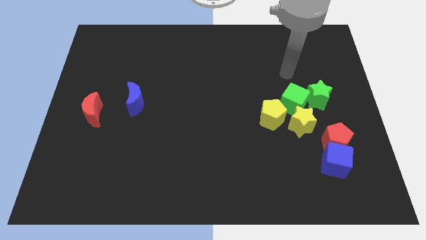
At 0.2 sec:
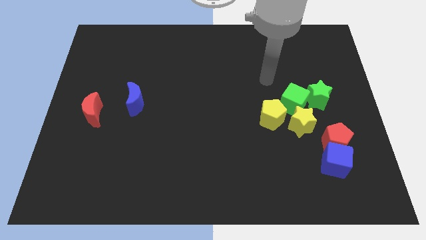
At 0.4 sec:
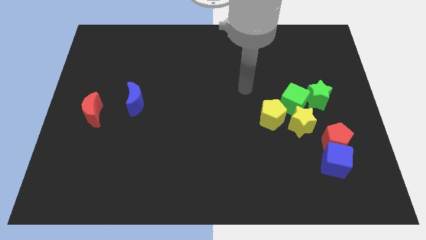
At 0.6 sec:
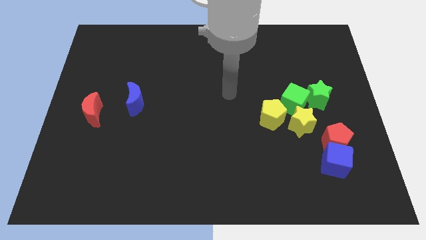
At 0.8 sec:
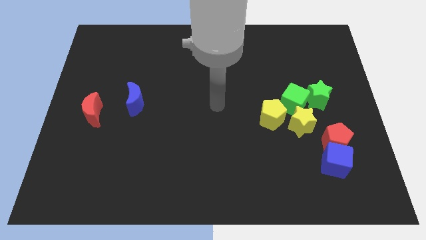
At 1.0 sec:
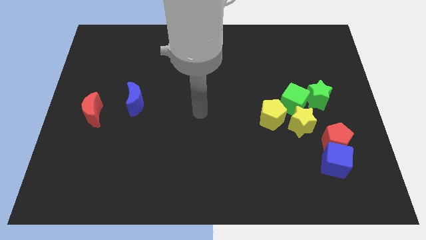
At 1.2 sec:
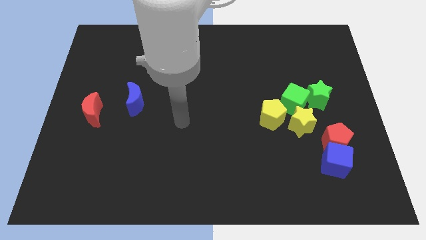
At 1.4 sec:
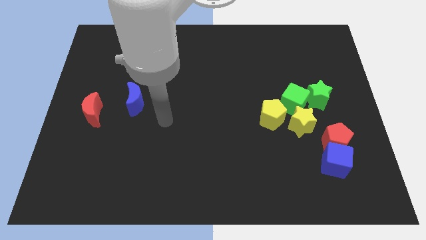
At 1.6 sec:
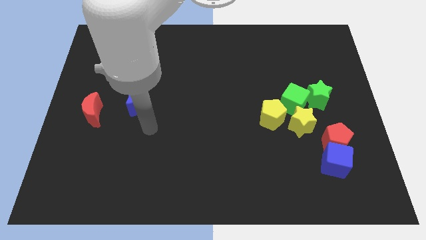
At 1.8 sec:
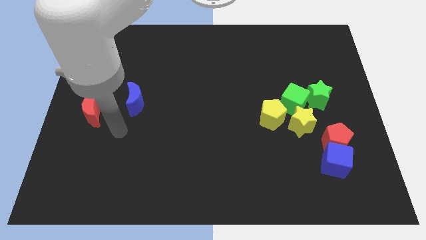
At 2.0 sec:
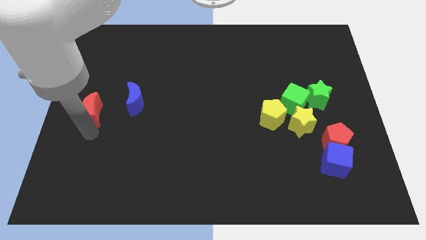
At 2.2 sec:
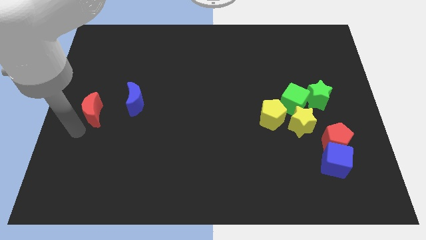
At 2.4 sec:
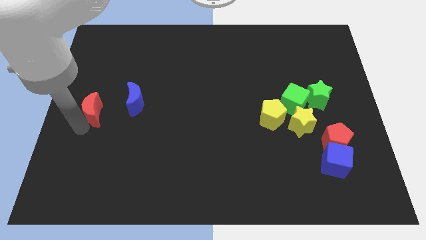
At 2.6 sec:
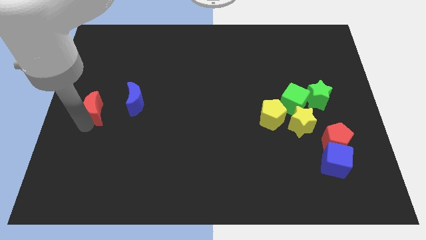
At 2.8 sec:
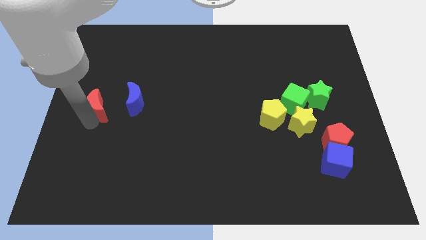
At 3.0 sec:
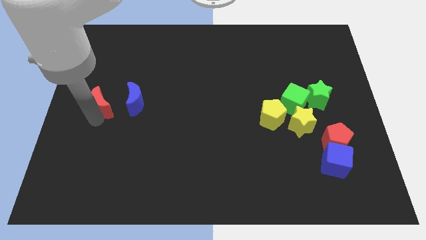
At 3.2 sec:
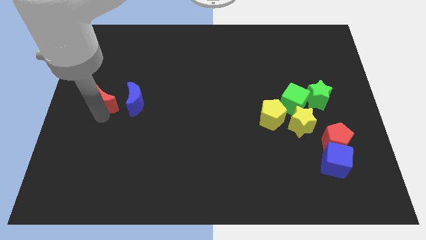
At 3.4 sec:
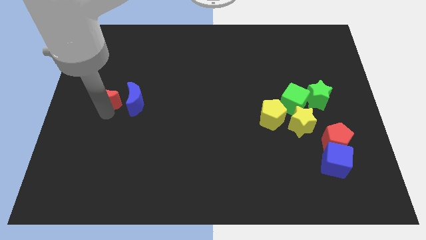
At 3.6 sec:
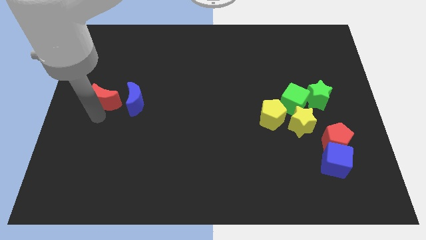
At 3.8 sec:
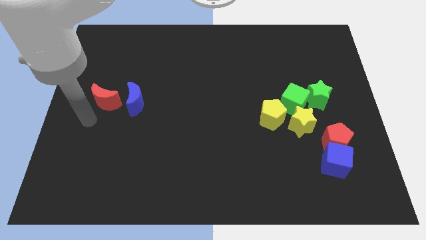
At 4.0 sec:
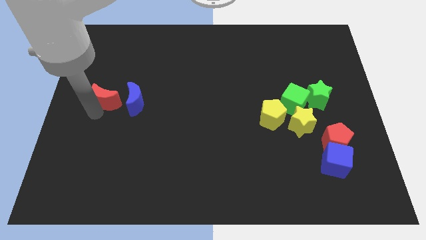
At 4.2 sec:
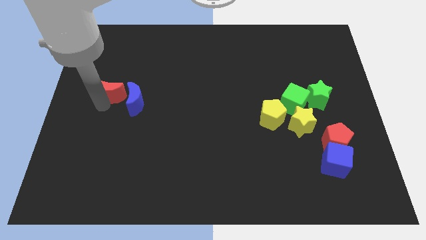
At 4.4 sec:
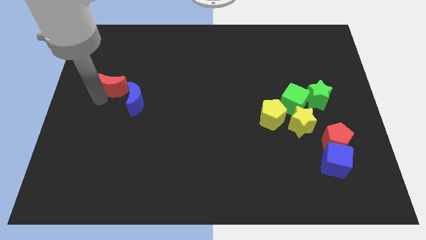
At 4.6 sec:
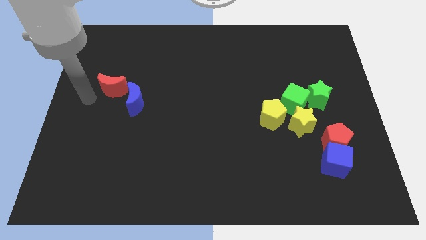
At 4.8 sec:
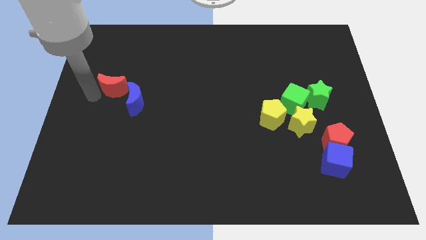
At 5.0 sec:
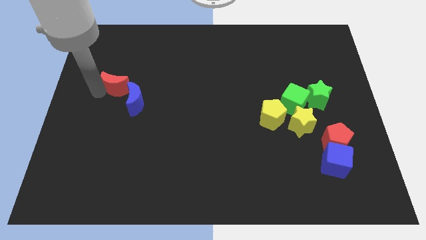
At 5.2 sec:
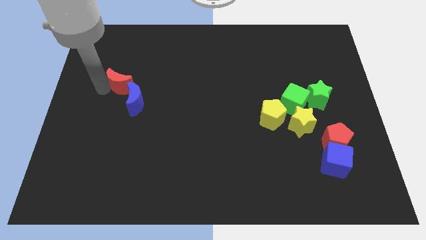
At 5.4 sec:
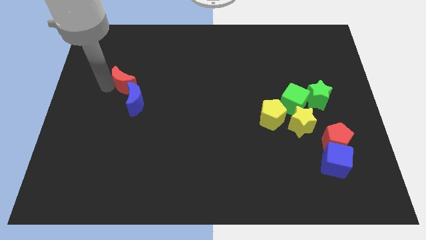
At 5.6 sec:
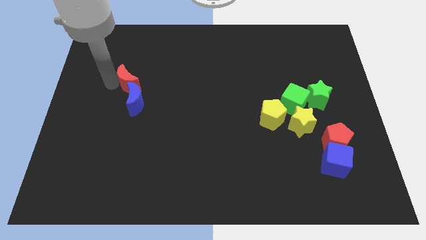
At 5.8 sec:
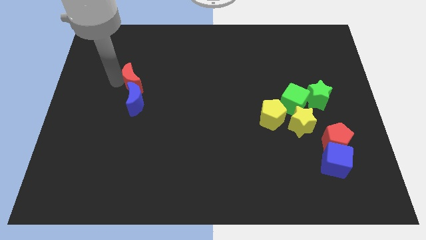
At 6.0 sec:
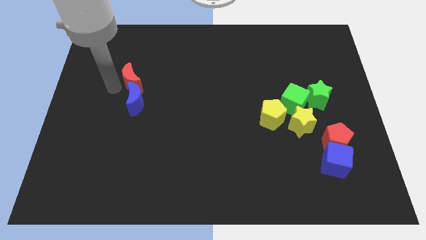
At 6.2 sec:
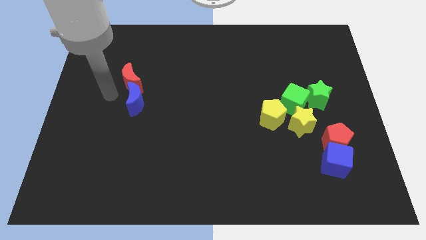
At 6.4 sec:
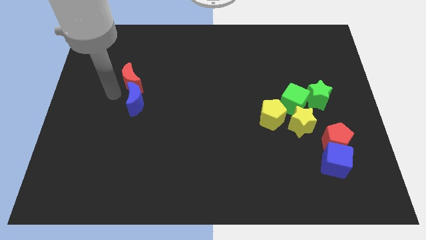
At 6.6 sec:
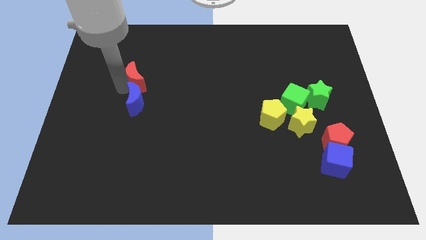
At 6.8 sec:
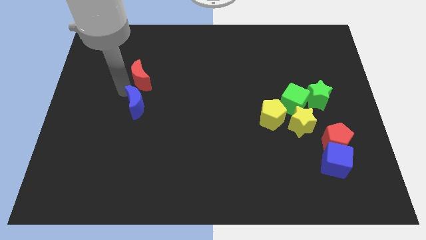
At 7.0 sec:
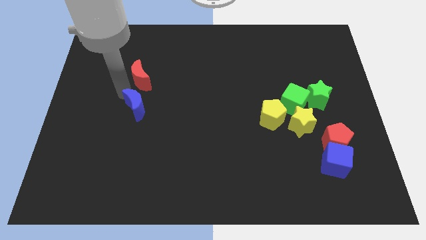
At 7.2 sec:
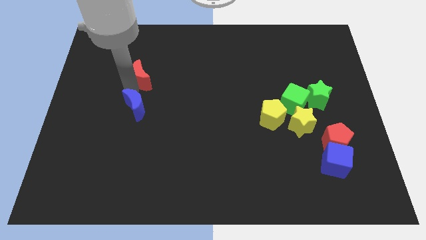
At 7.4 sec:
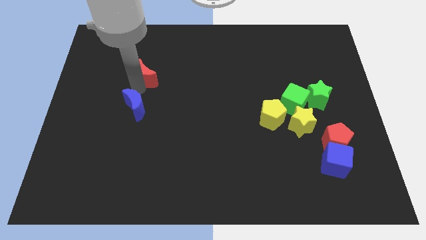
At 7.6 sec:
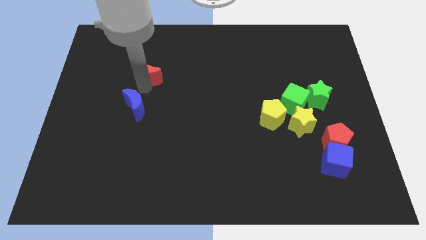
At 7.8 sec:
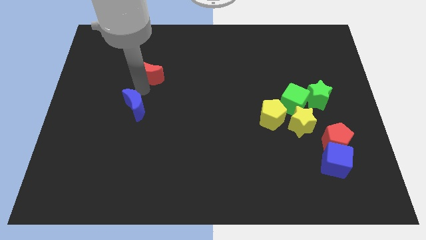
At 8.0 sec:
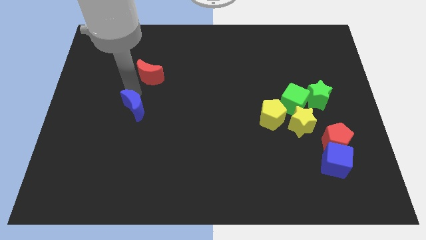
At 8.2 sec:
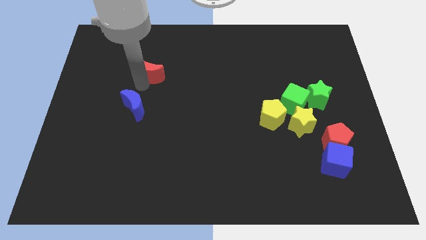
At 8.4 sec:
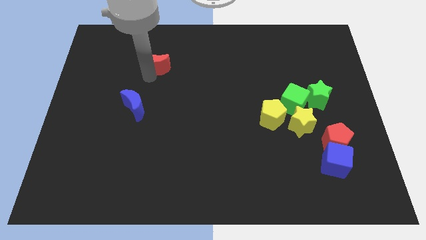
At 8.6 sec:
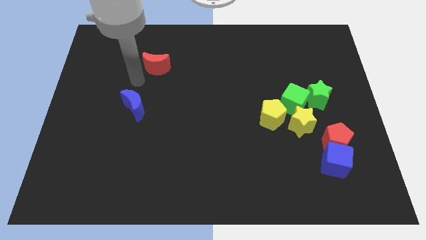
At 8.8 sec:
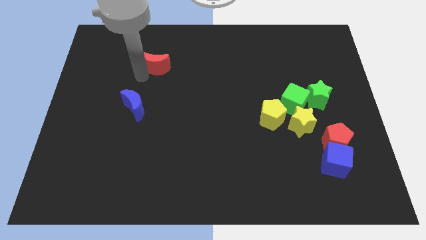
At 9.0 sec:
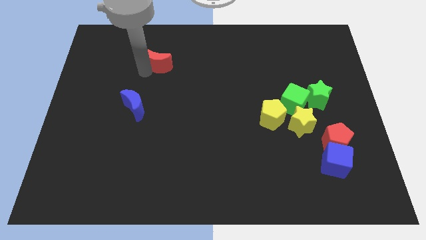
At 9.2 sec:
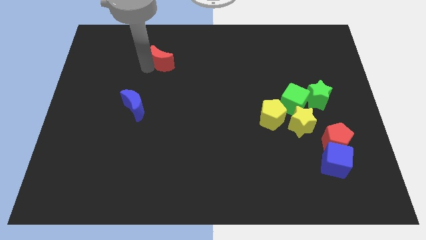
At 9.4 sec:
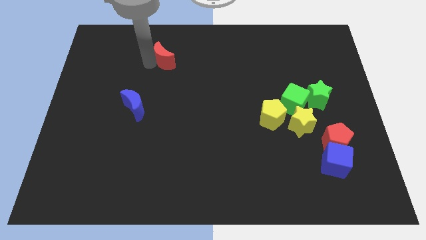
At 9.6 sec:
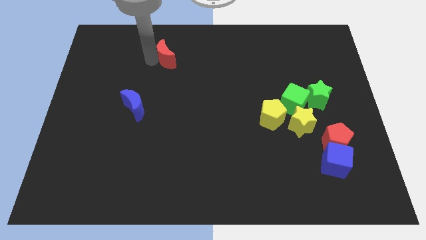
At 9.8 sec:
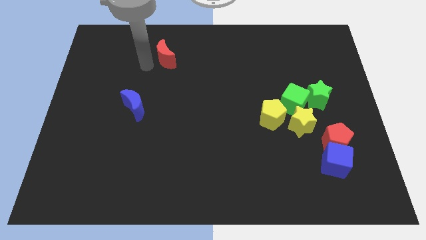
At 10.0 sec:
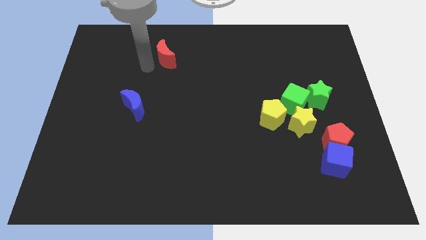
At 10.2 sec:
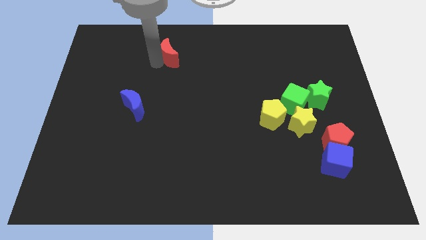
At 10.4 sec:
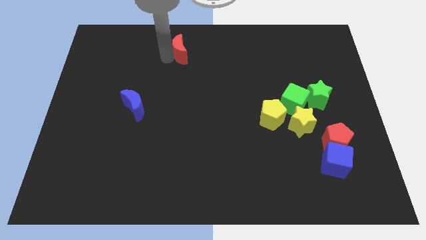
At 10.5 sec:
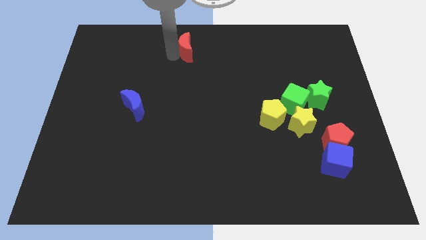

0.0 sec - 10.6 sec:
push the red moon to the towards your base
